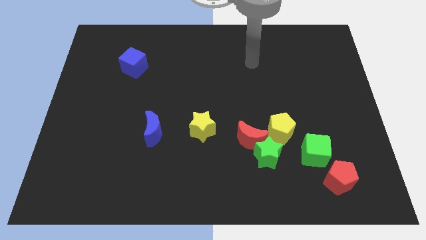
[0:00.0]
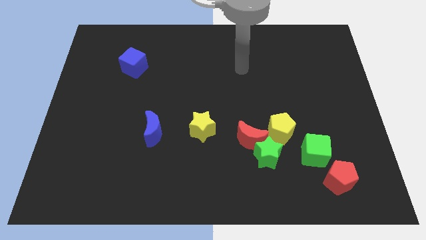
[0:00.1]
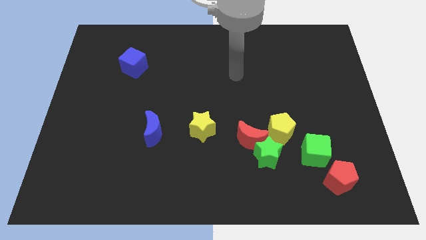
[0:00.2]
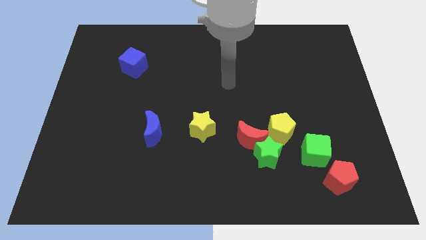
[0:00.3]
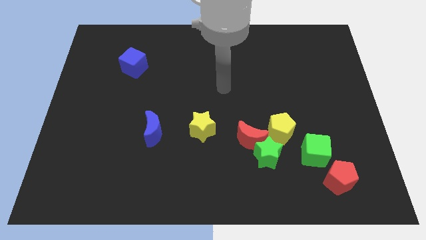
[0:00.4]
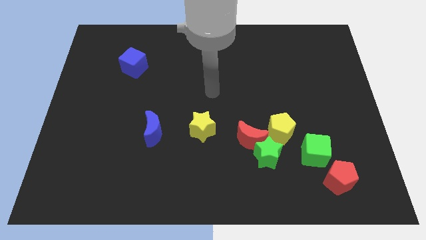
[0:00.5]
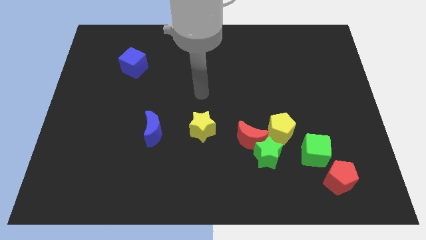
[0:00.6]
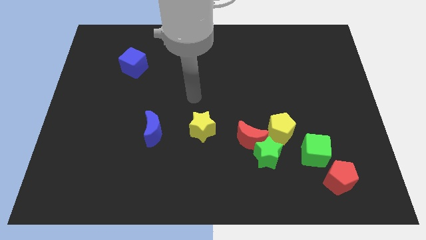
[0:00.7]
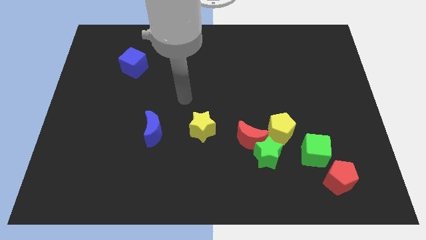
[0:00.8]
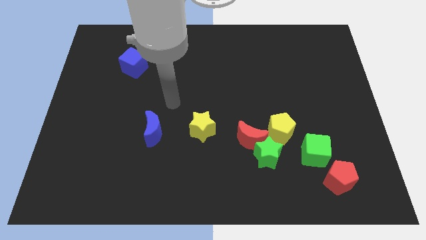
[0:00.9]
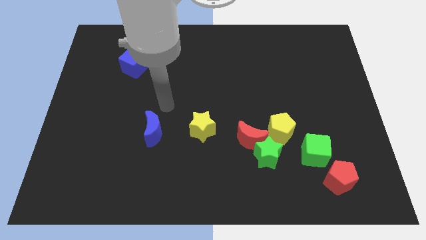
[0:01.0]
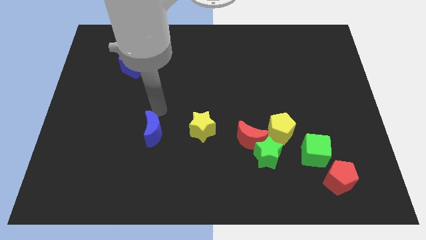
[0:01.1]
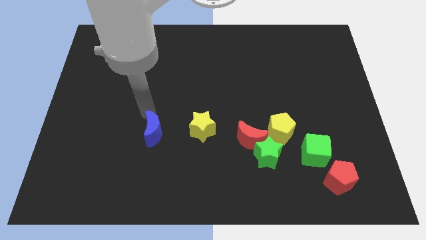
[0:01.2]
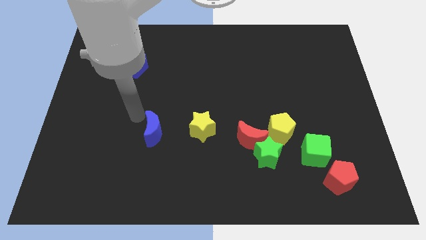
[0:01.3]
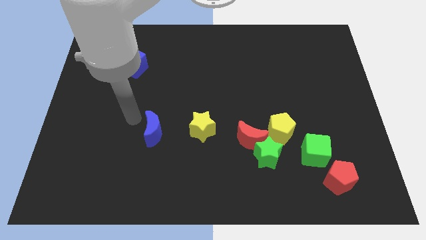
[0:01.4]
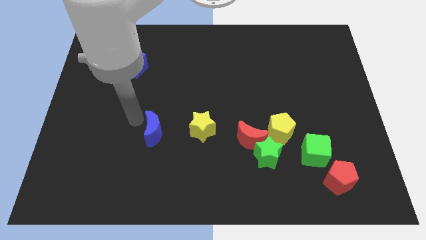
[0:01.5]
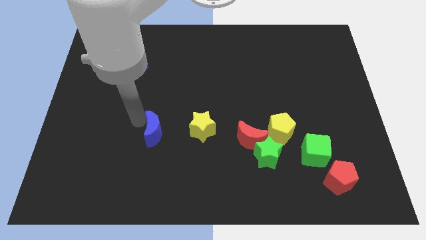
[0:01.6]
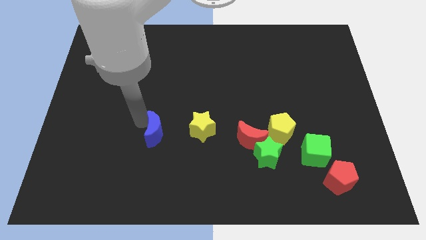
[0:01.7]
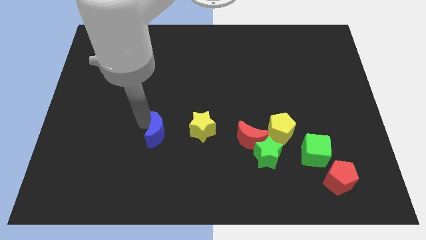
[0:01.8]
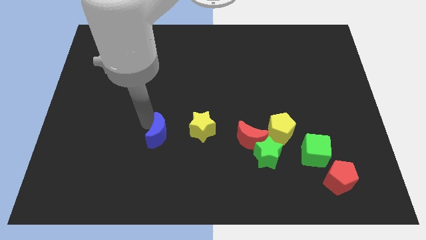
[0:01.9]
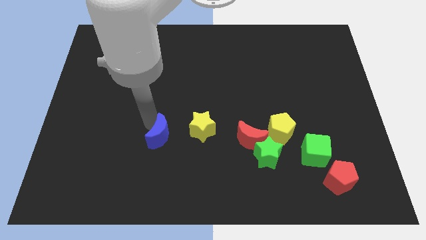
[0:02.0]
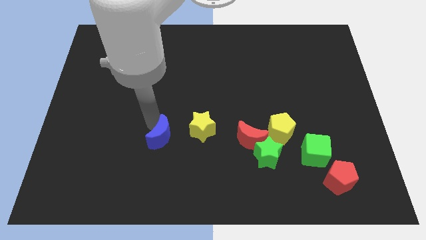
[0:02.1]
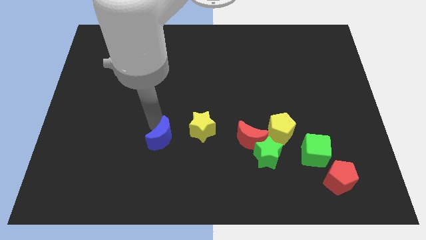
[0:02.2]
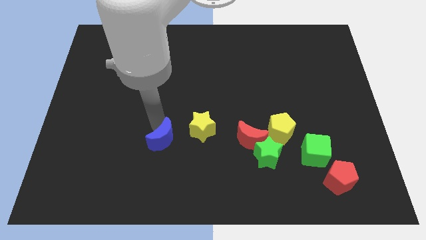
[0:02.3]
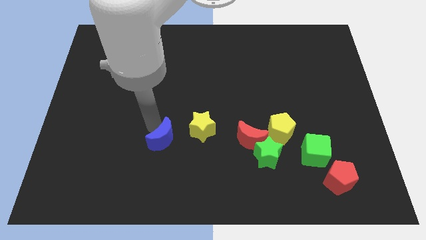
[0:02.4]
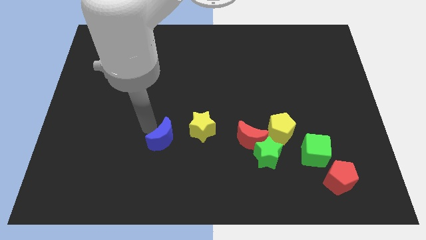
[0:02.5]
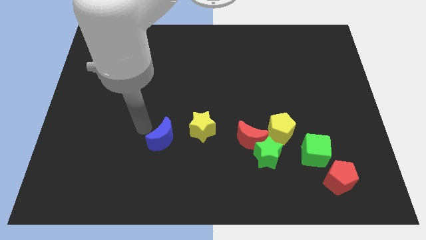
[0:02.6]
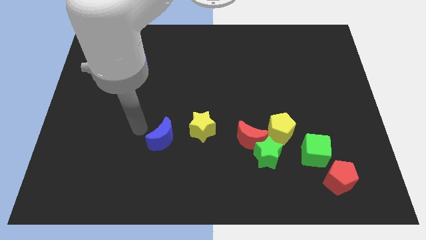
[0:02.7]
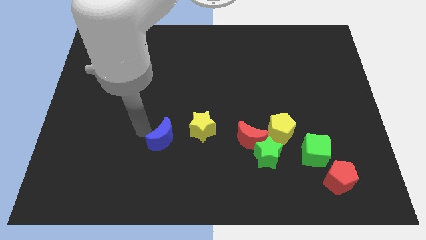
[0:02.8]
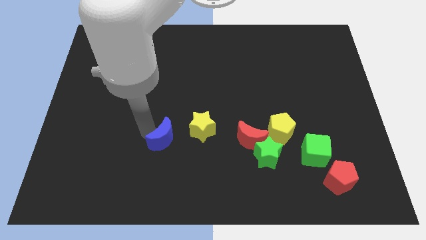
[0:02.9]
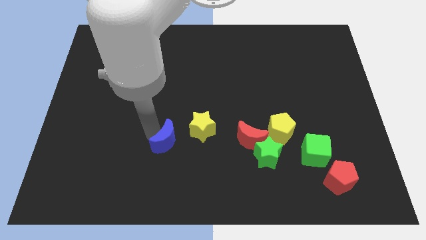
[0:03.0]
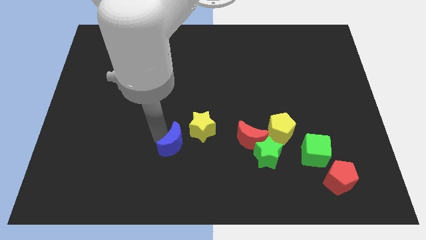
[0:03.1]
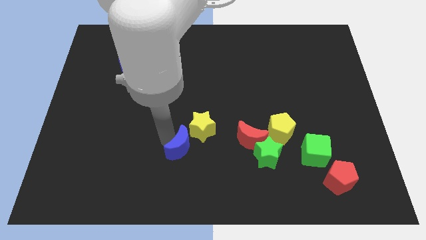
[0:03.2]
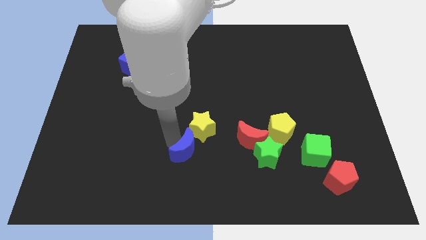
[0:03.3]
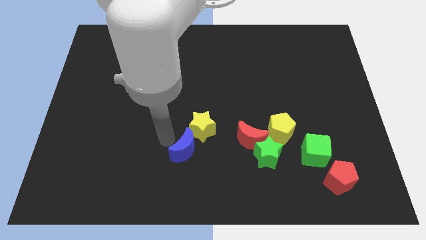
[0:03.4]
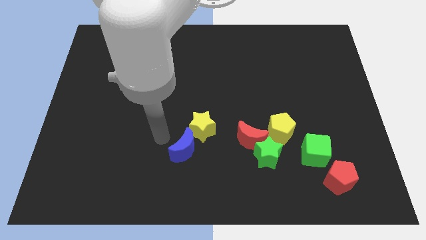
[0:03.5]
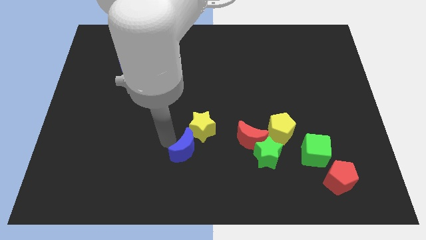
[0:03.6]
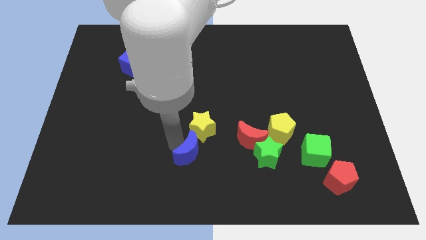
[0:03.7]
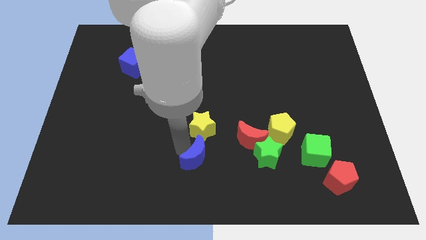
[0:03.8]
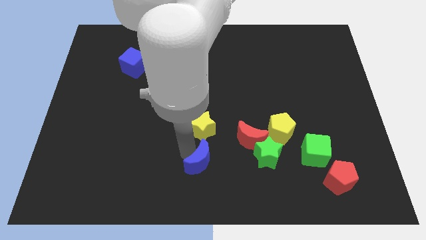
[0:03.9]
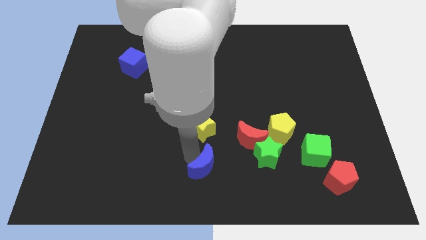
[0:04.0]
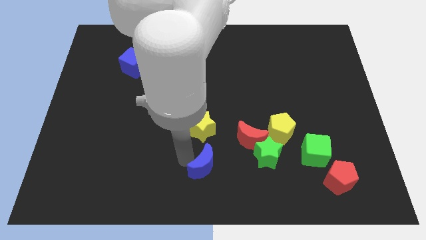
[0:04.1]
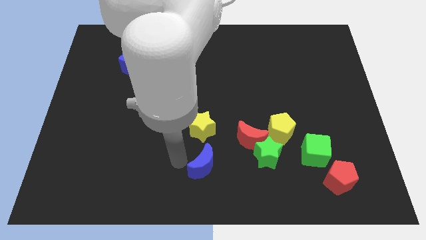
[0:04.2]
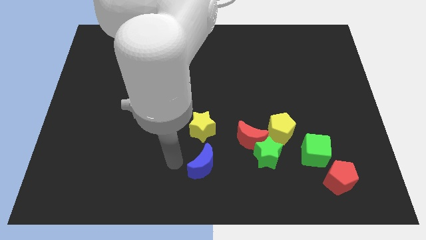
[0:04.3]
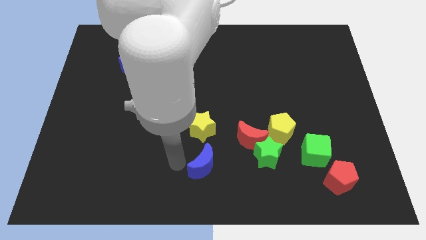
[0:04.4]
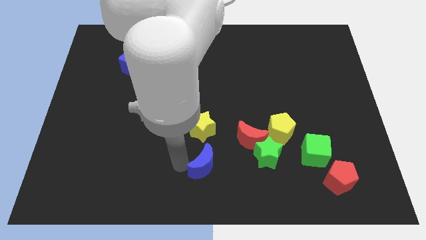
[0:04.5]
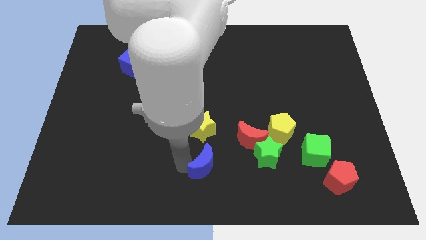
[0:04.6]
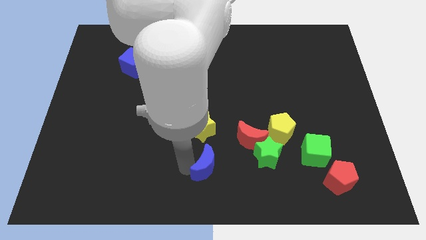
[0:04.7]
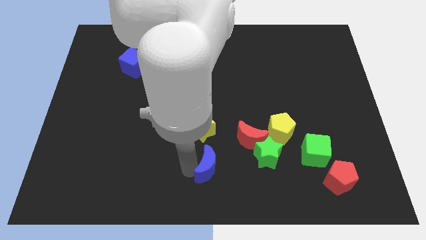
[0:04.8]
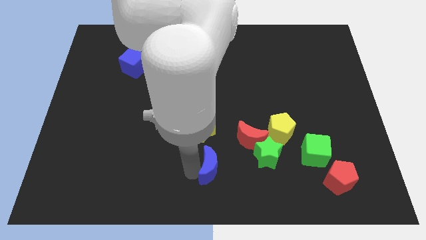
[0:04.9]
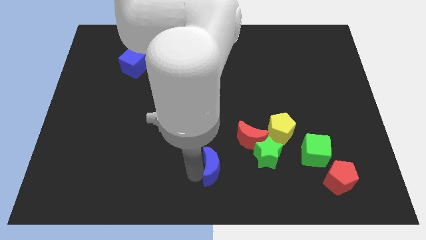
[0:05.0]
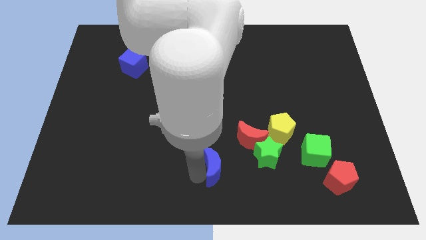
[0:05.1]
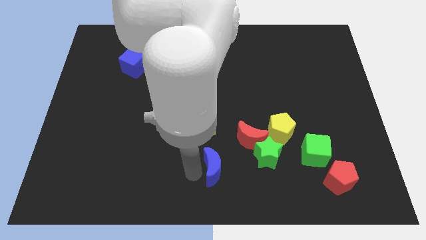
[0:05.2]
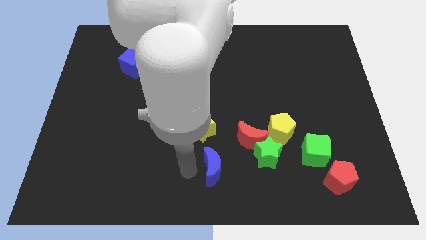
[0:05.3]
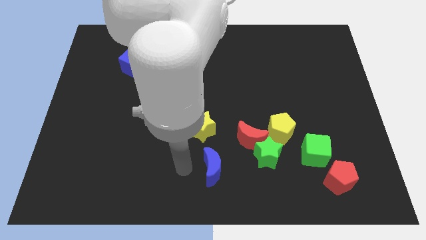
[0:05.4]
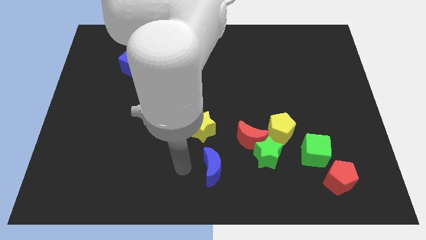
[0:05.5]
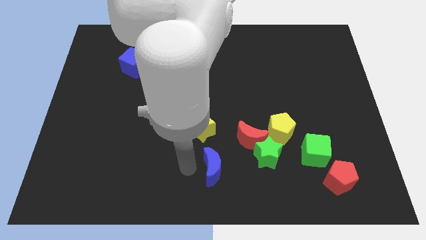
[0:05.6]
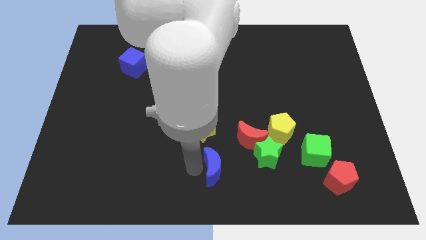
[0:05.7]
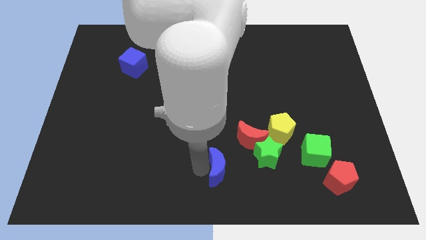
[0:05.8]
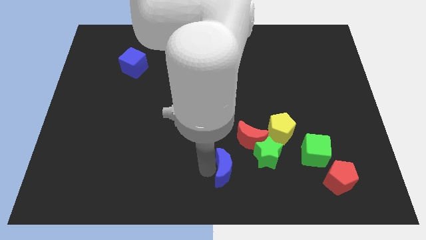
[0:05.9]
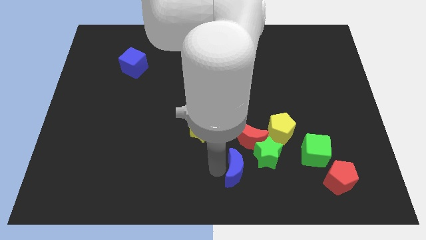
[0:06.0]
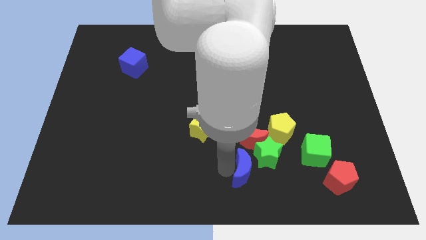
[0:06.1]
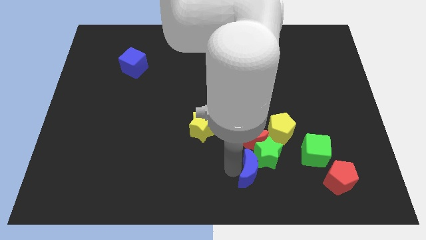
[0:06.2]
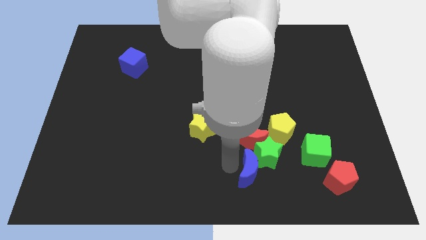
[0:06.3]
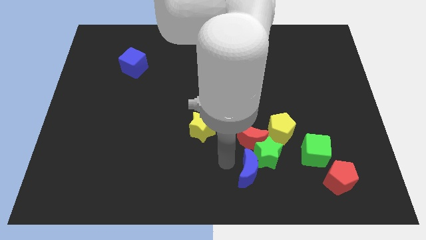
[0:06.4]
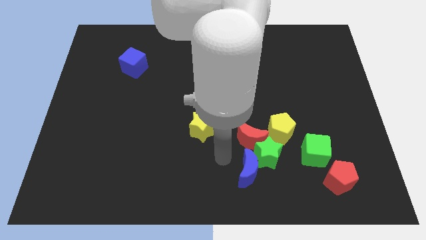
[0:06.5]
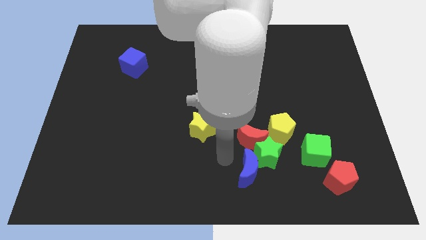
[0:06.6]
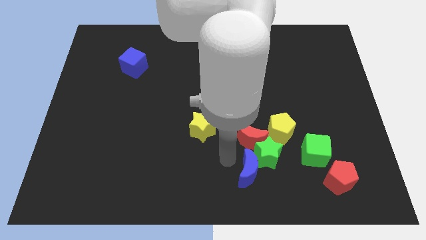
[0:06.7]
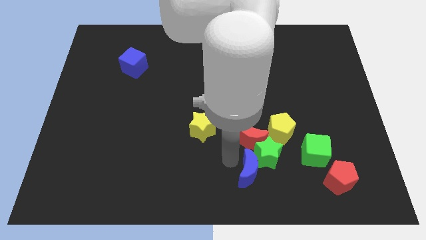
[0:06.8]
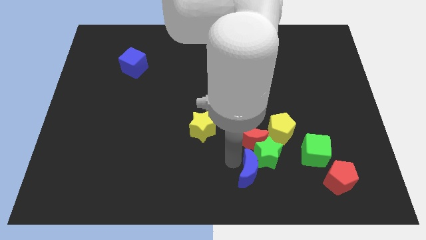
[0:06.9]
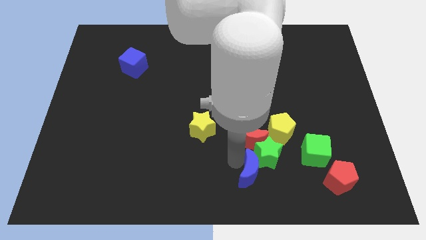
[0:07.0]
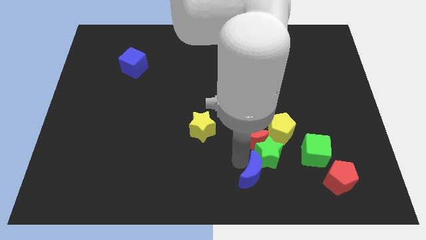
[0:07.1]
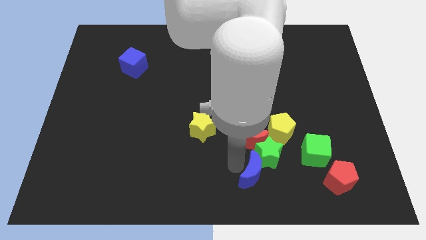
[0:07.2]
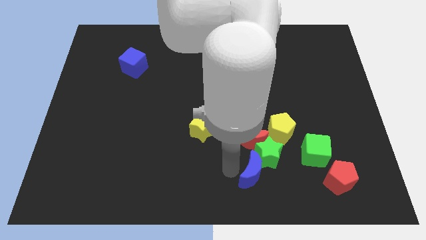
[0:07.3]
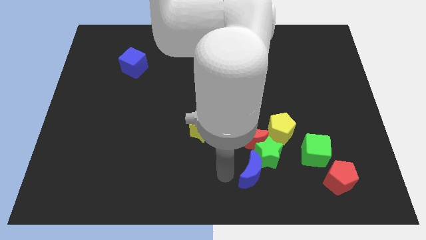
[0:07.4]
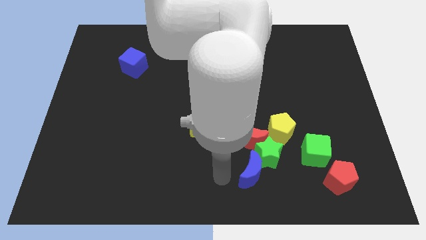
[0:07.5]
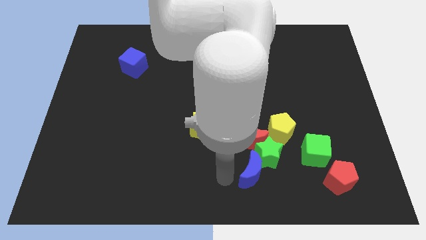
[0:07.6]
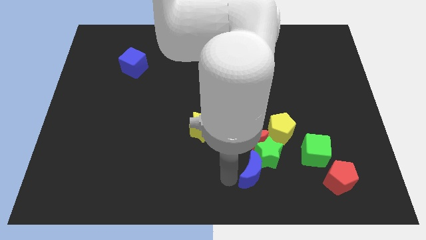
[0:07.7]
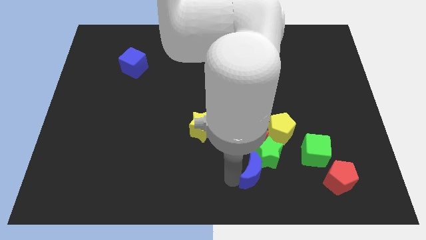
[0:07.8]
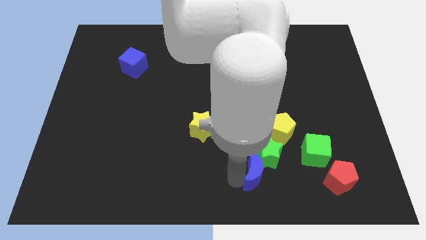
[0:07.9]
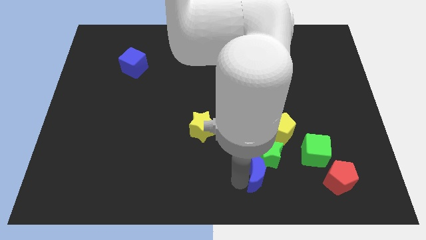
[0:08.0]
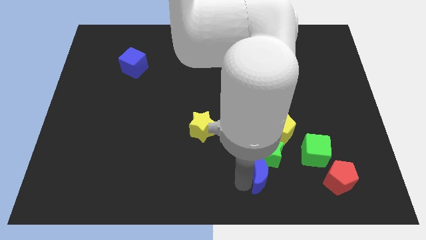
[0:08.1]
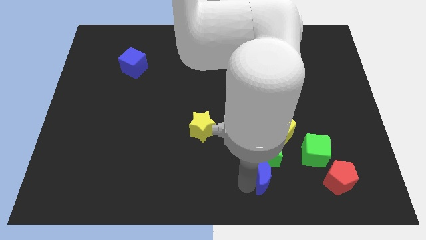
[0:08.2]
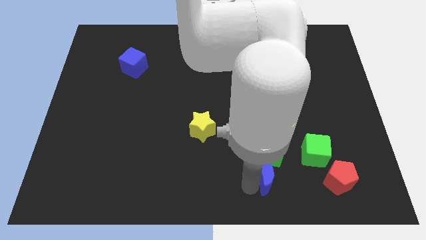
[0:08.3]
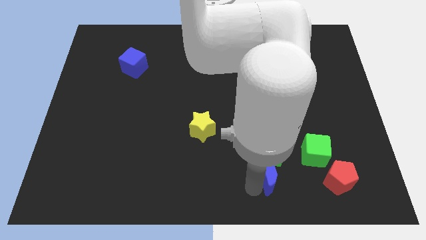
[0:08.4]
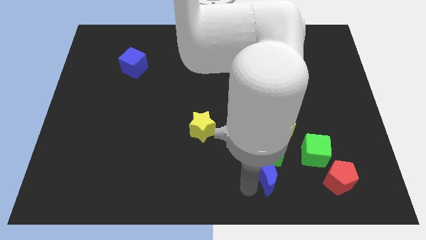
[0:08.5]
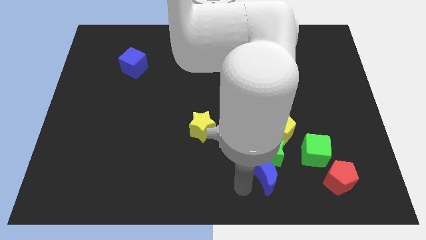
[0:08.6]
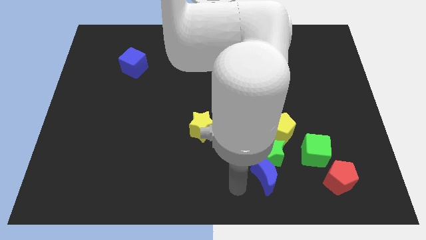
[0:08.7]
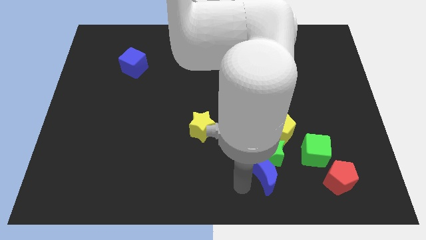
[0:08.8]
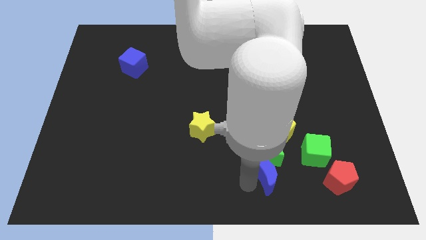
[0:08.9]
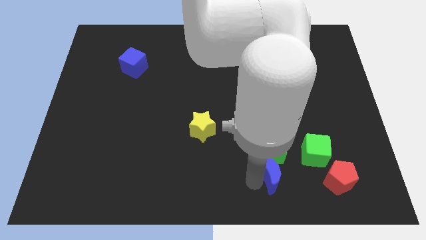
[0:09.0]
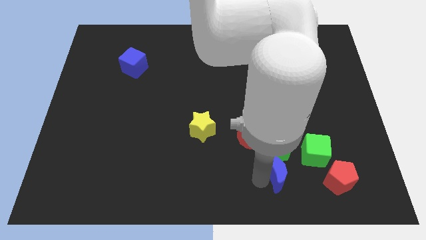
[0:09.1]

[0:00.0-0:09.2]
push the blue moon right
